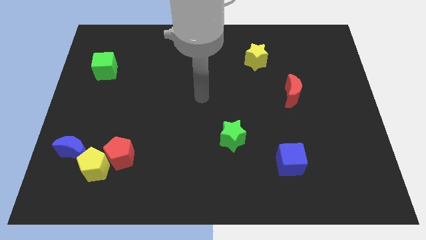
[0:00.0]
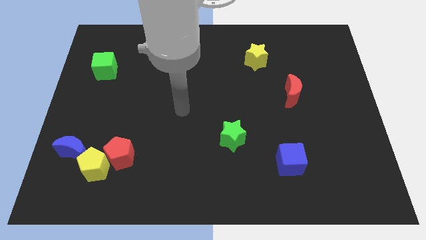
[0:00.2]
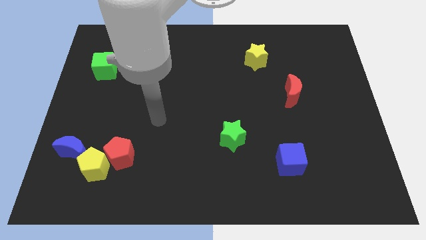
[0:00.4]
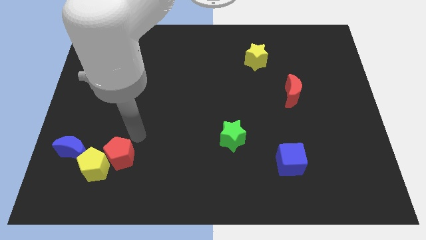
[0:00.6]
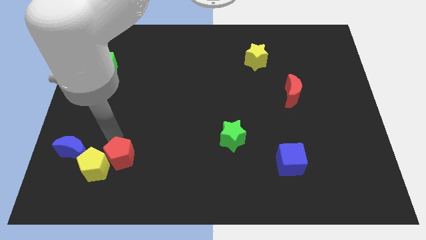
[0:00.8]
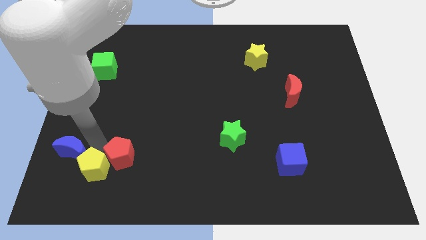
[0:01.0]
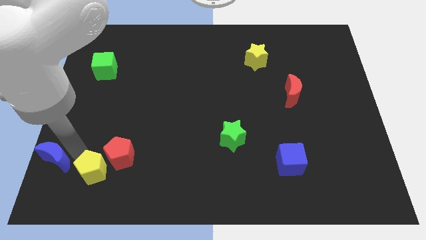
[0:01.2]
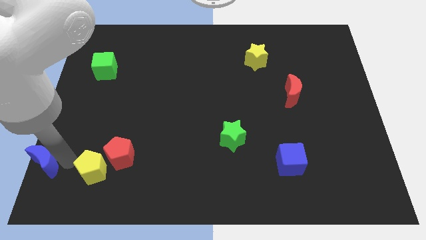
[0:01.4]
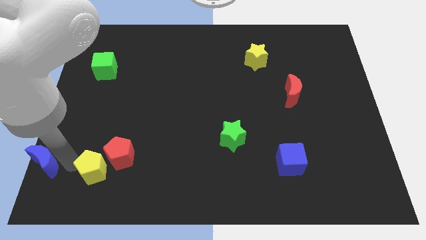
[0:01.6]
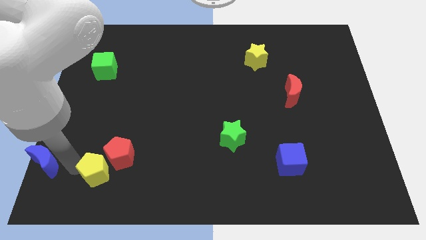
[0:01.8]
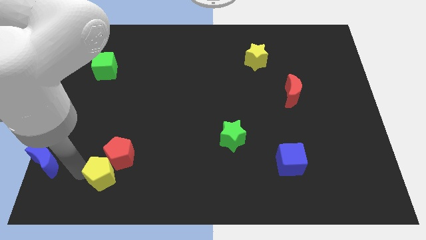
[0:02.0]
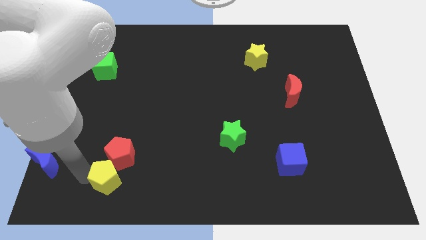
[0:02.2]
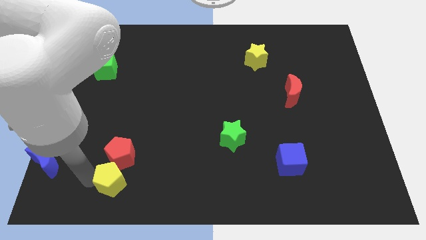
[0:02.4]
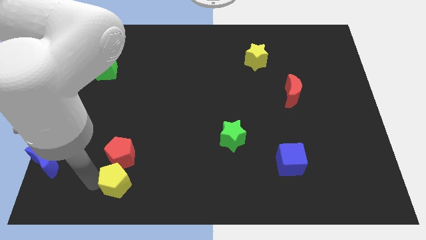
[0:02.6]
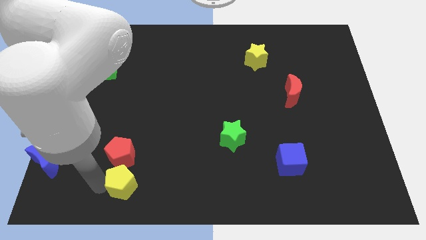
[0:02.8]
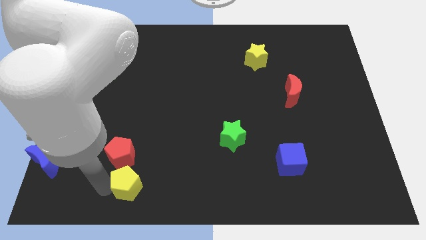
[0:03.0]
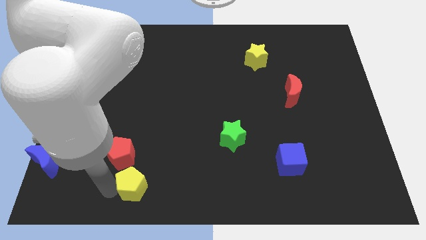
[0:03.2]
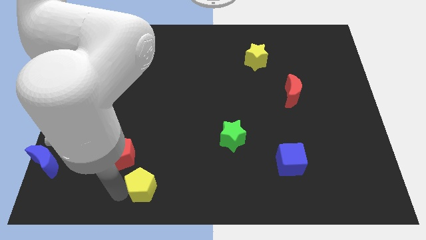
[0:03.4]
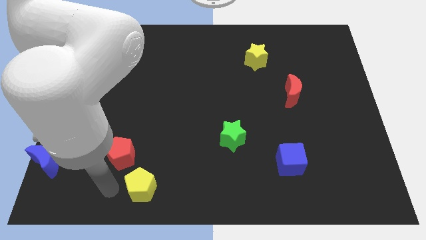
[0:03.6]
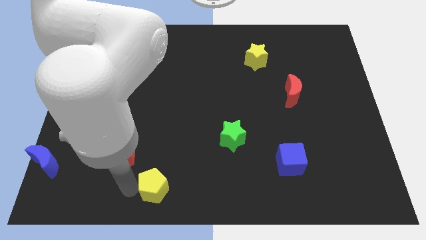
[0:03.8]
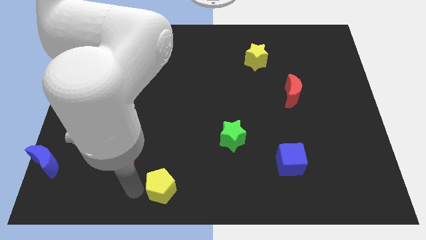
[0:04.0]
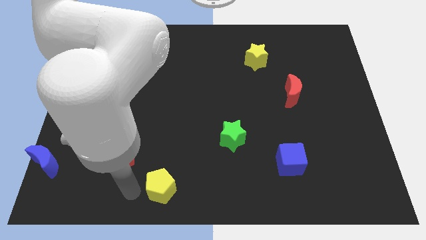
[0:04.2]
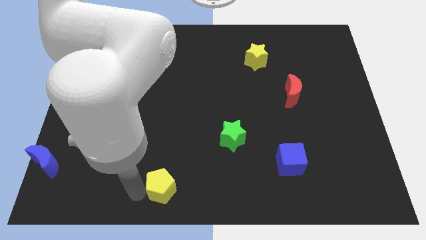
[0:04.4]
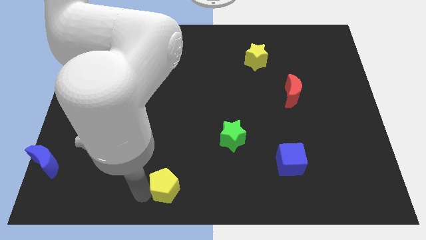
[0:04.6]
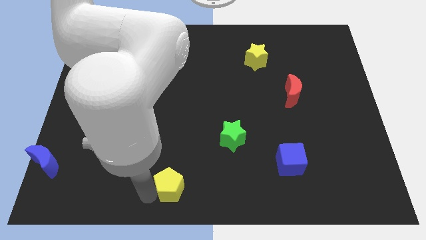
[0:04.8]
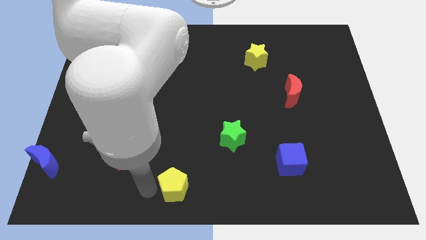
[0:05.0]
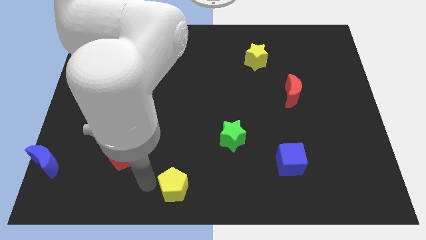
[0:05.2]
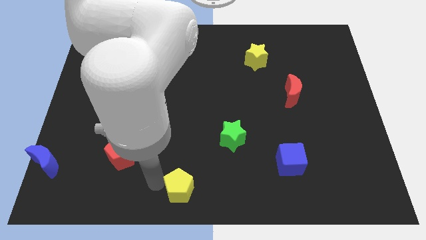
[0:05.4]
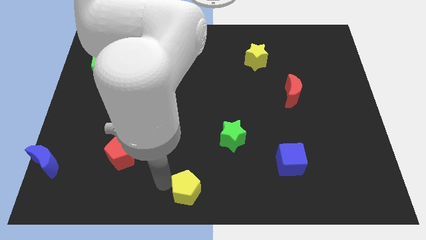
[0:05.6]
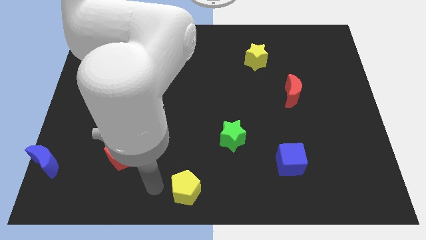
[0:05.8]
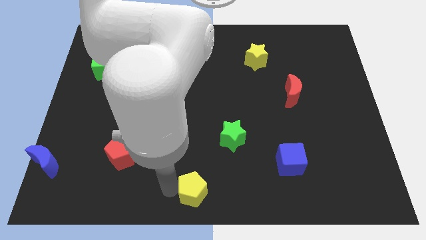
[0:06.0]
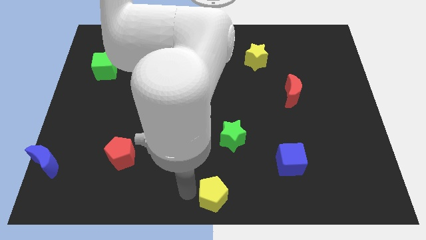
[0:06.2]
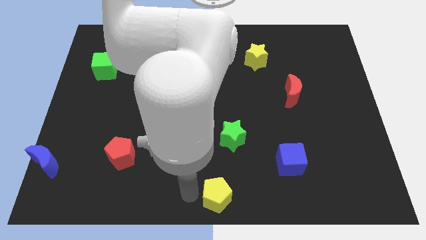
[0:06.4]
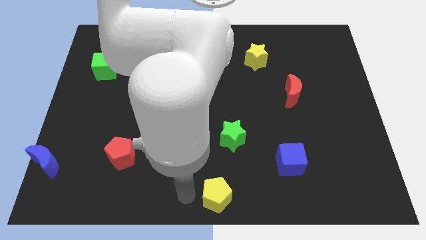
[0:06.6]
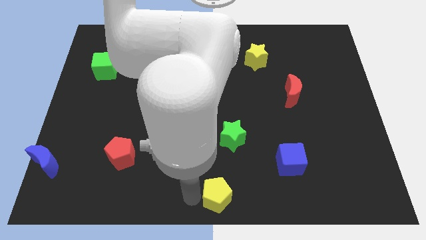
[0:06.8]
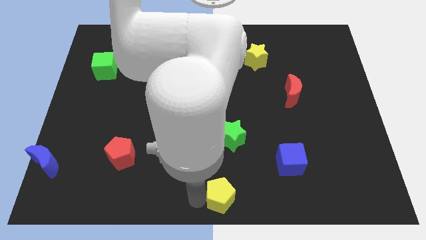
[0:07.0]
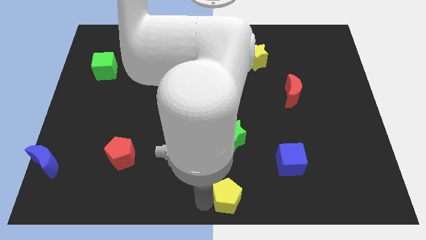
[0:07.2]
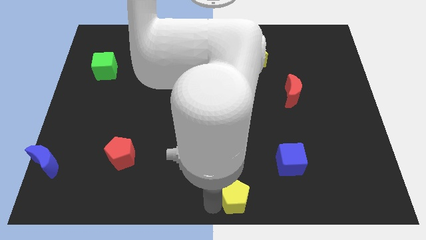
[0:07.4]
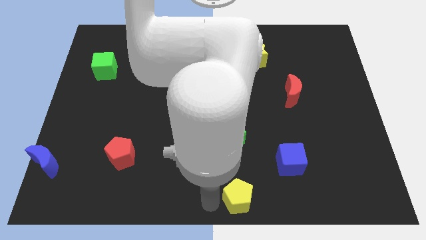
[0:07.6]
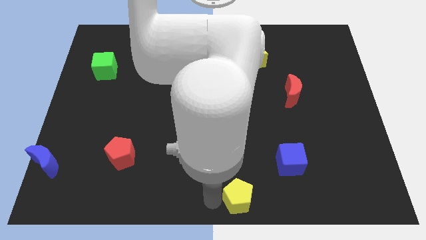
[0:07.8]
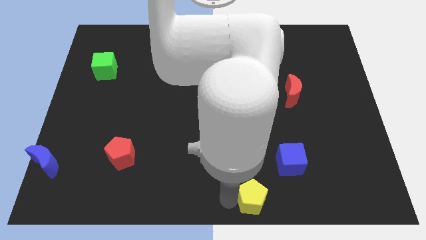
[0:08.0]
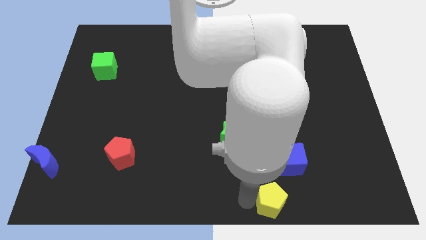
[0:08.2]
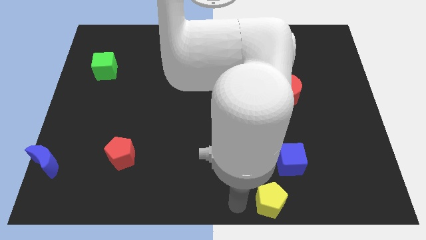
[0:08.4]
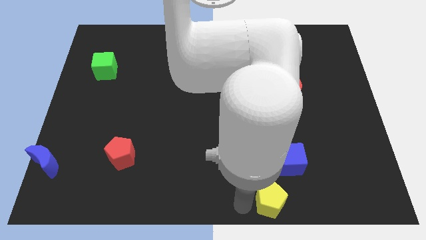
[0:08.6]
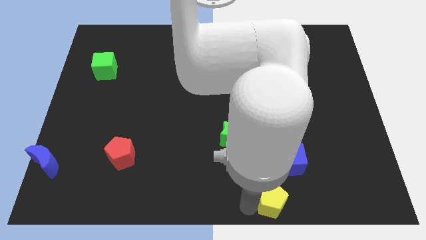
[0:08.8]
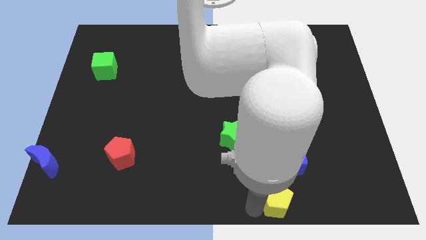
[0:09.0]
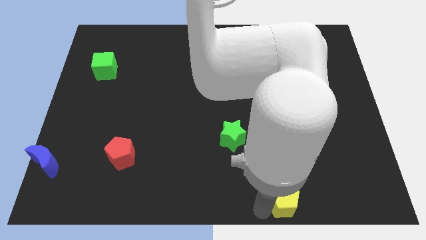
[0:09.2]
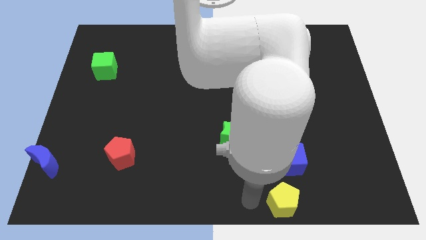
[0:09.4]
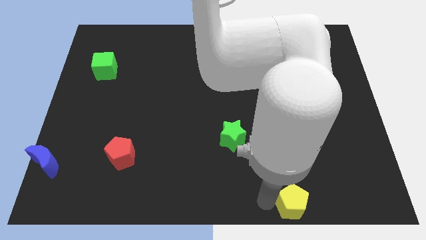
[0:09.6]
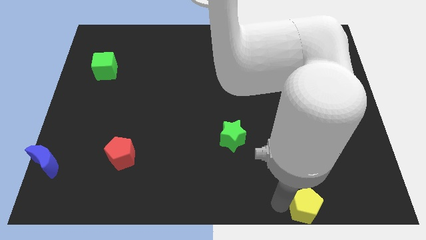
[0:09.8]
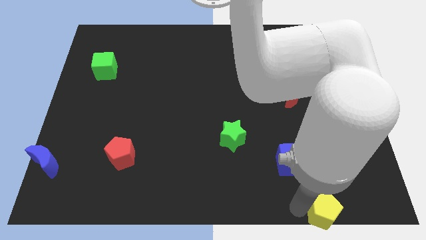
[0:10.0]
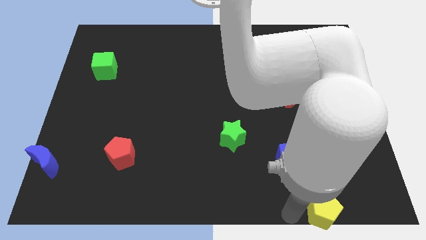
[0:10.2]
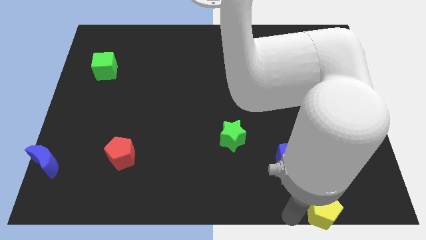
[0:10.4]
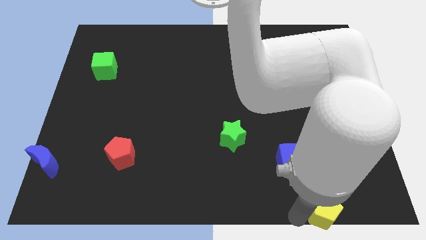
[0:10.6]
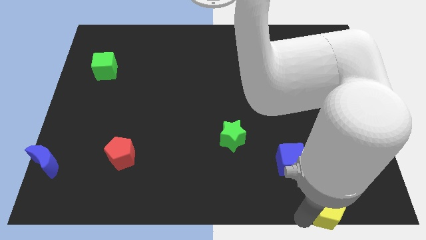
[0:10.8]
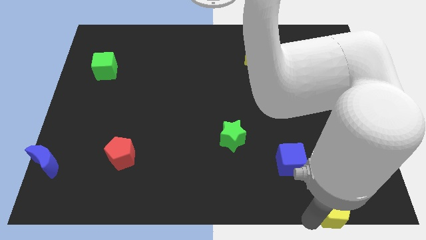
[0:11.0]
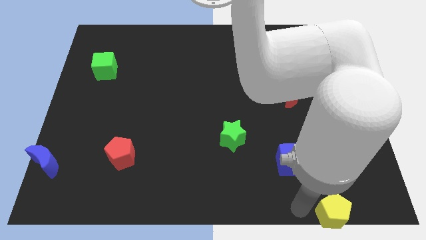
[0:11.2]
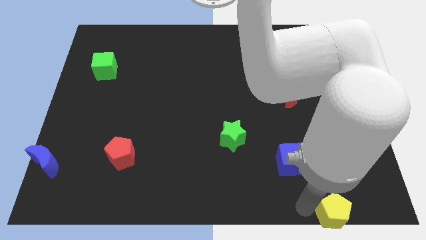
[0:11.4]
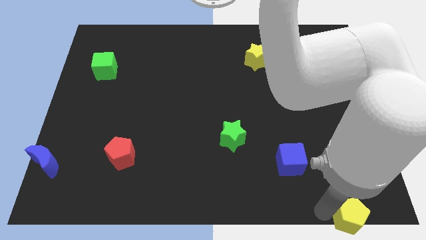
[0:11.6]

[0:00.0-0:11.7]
slide the yellow pentagon to the bottom right
